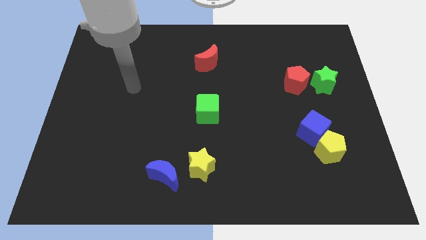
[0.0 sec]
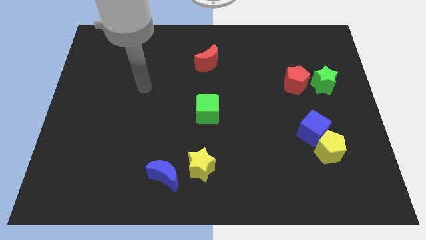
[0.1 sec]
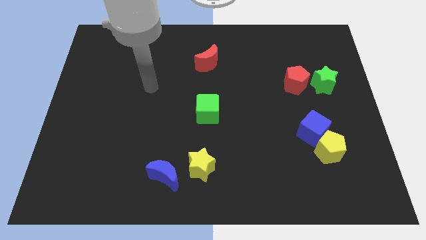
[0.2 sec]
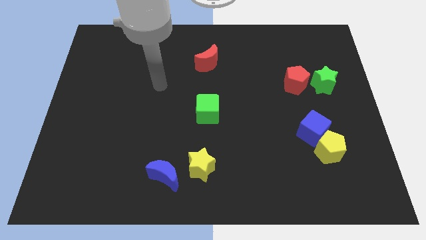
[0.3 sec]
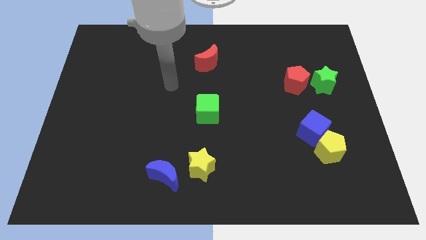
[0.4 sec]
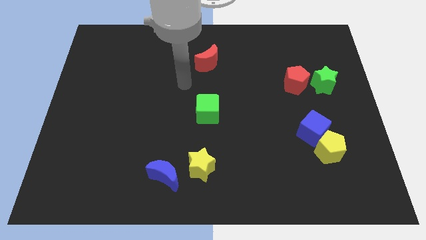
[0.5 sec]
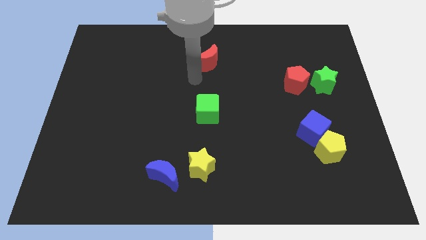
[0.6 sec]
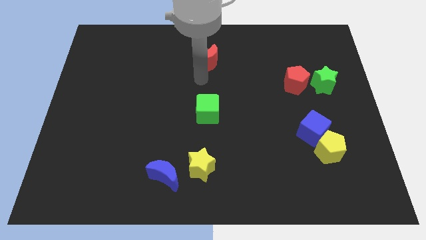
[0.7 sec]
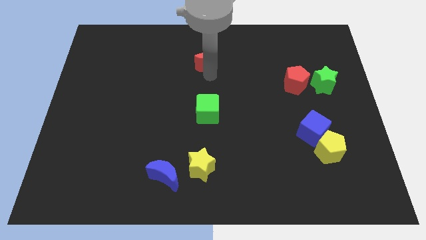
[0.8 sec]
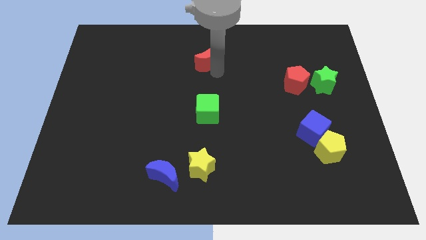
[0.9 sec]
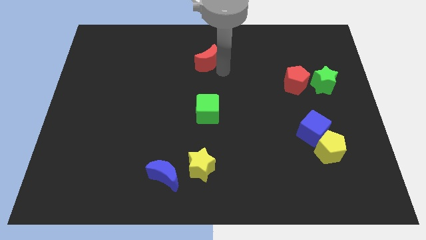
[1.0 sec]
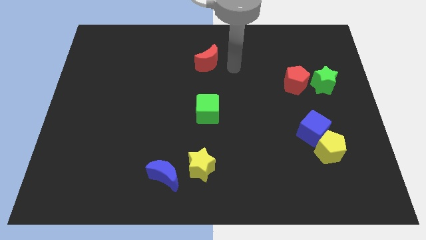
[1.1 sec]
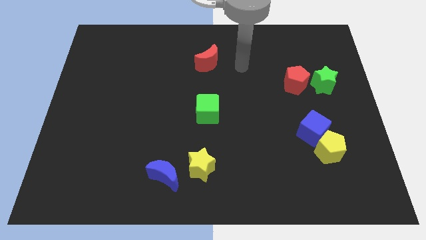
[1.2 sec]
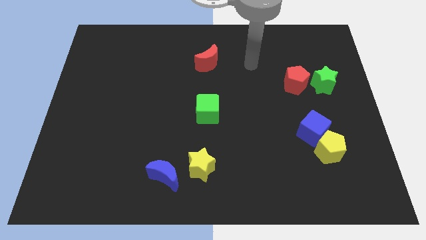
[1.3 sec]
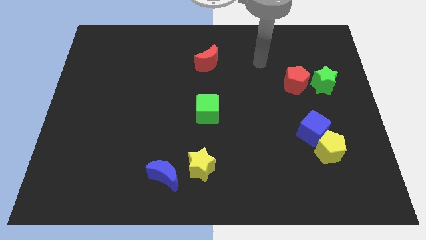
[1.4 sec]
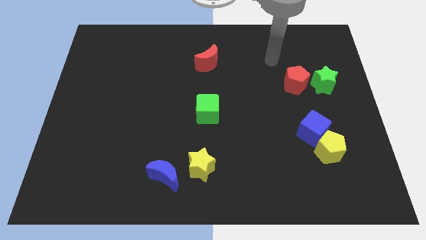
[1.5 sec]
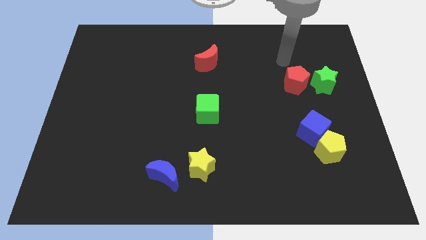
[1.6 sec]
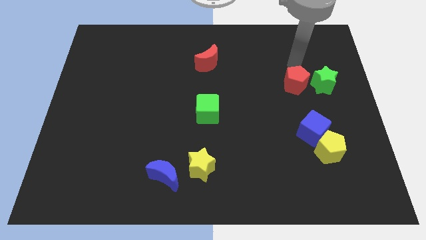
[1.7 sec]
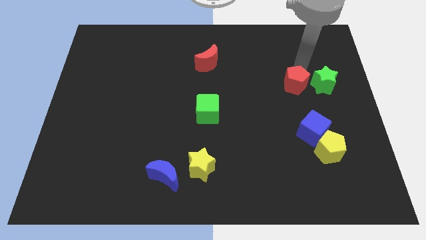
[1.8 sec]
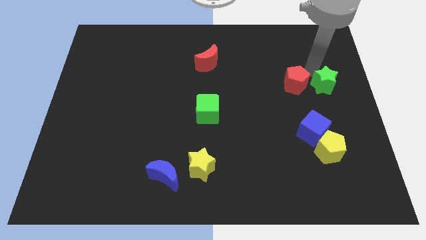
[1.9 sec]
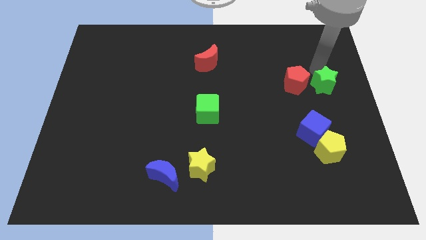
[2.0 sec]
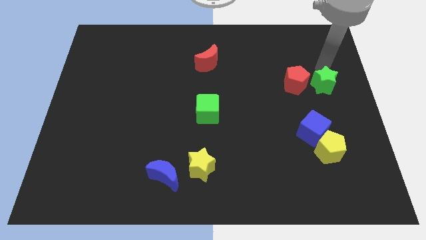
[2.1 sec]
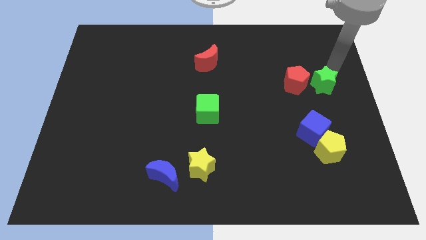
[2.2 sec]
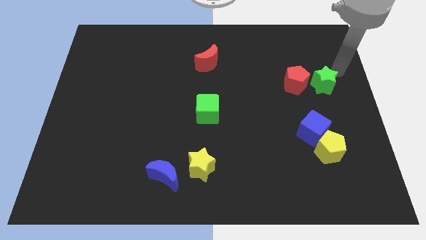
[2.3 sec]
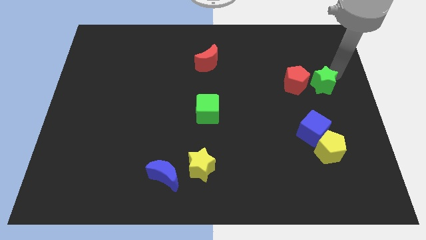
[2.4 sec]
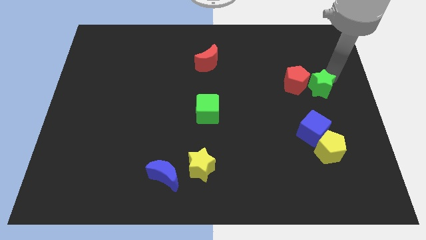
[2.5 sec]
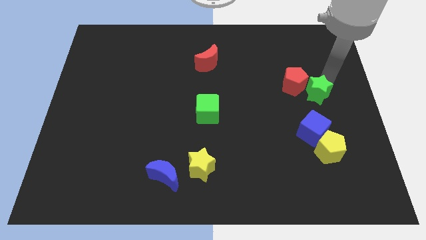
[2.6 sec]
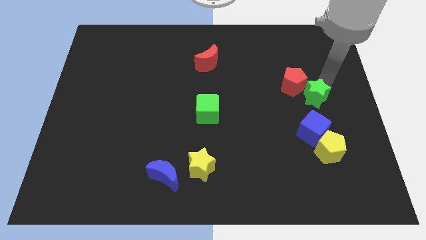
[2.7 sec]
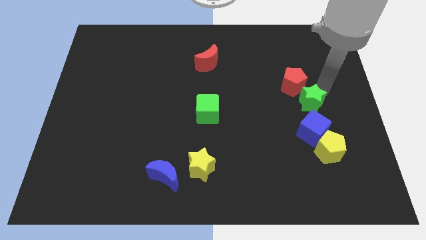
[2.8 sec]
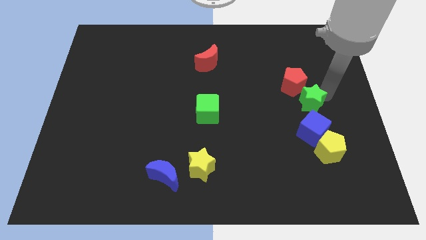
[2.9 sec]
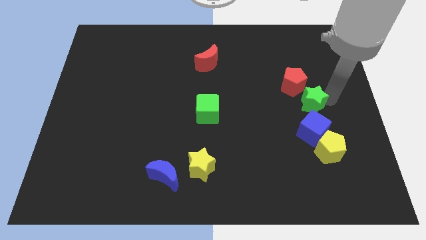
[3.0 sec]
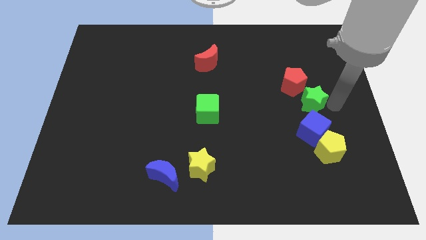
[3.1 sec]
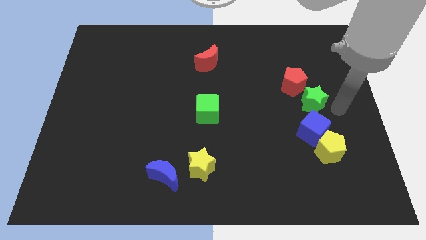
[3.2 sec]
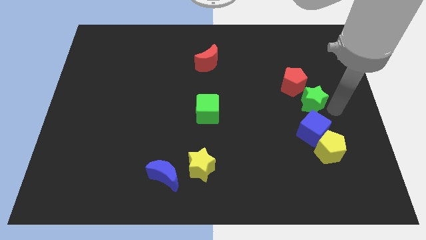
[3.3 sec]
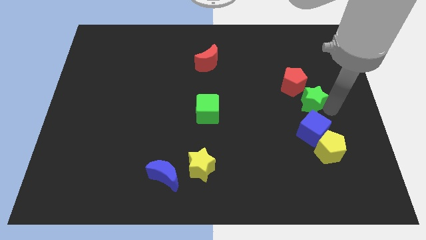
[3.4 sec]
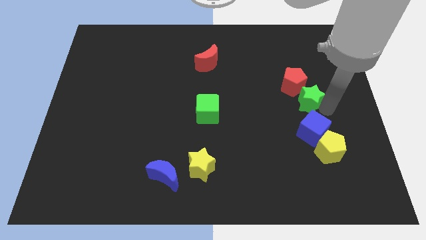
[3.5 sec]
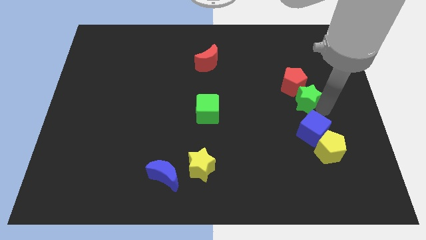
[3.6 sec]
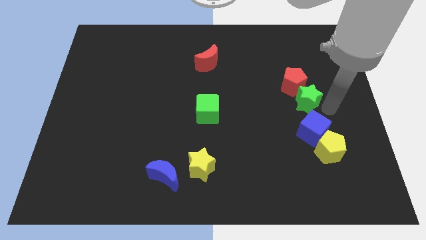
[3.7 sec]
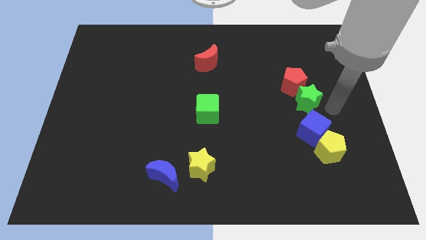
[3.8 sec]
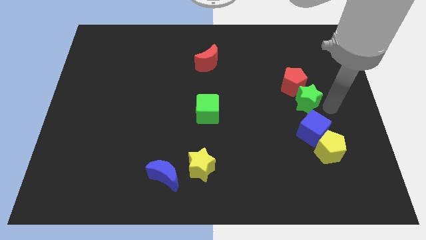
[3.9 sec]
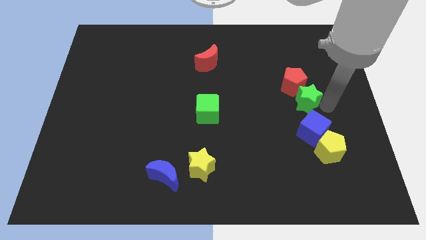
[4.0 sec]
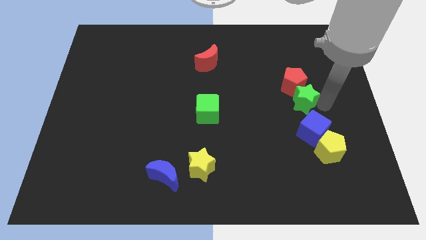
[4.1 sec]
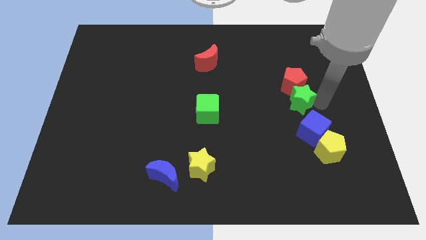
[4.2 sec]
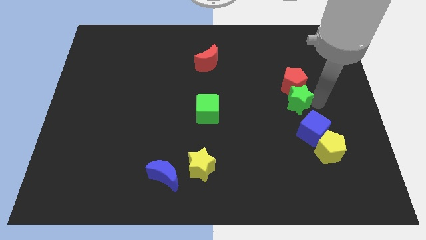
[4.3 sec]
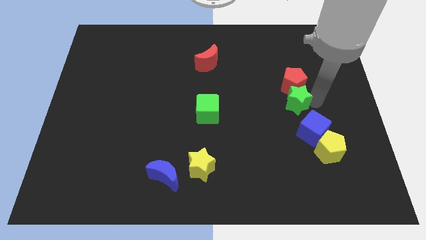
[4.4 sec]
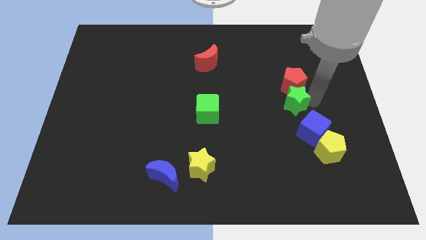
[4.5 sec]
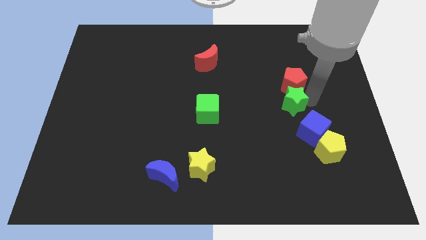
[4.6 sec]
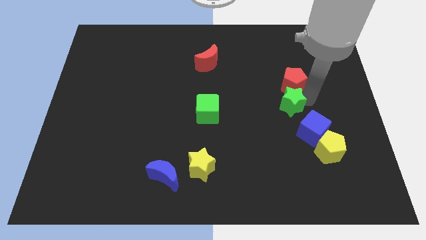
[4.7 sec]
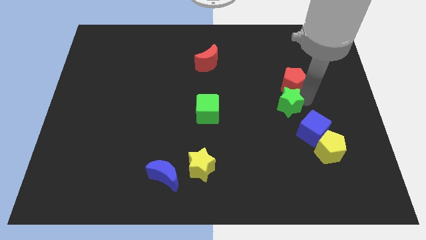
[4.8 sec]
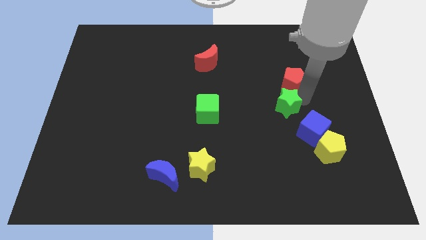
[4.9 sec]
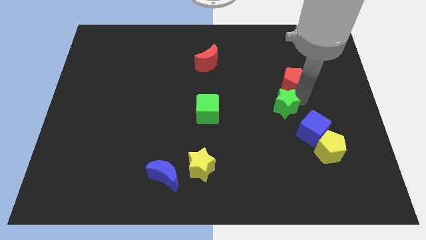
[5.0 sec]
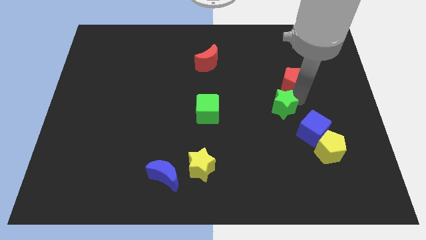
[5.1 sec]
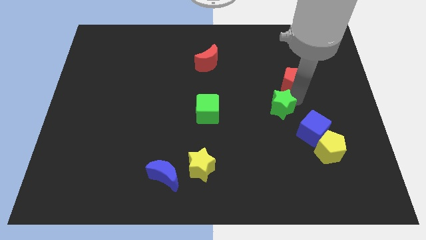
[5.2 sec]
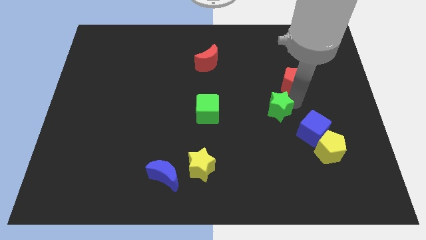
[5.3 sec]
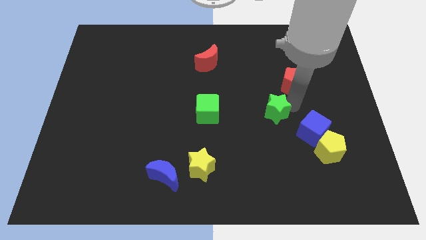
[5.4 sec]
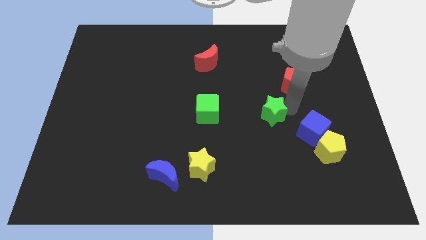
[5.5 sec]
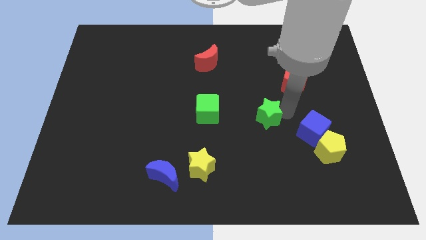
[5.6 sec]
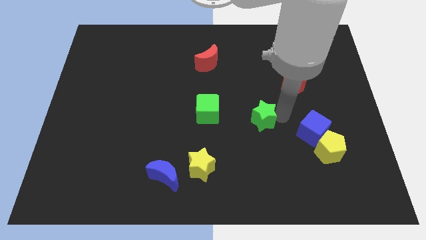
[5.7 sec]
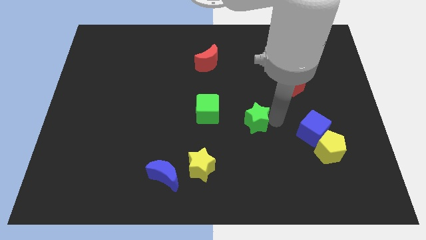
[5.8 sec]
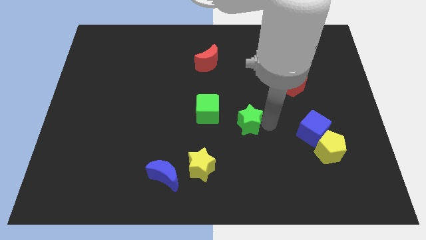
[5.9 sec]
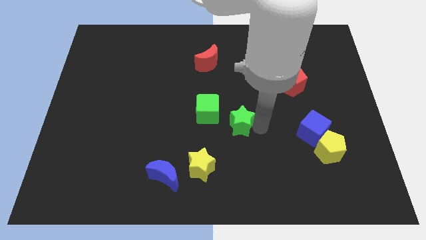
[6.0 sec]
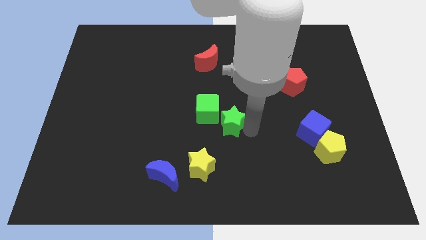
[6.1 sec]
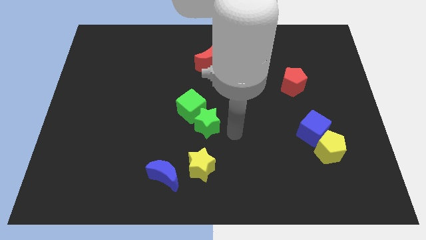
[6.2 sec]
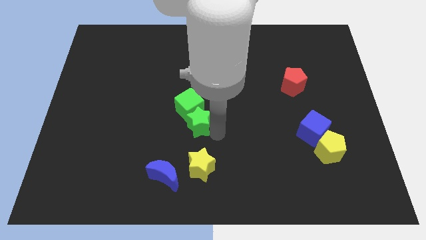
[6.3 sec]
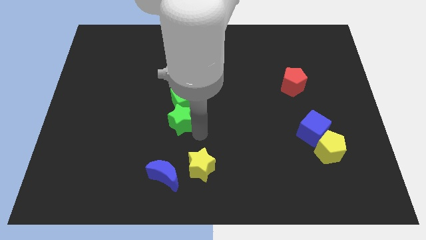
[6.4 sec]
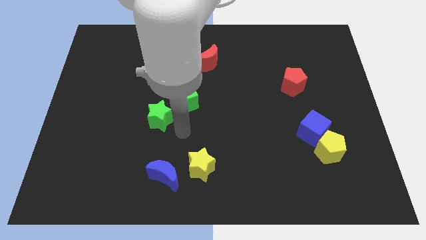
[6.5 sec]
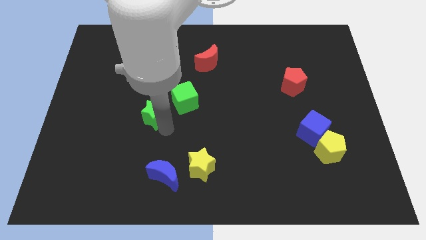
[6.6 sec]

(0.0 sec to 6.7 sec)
move the green star left of the green cube

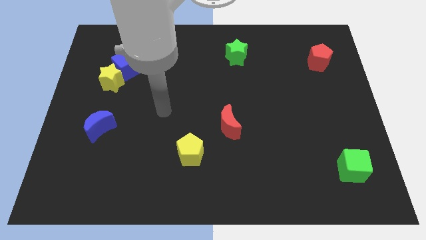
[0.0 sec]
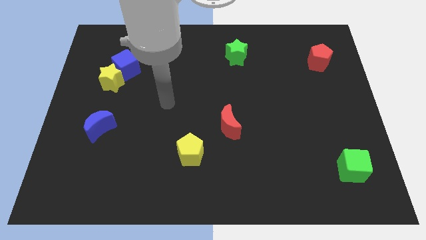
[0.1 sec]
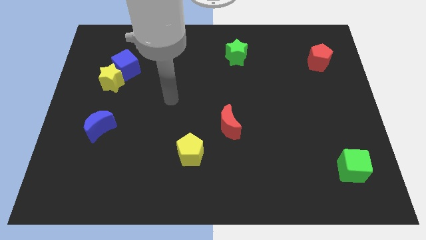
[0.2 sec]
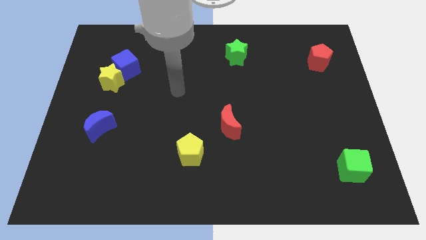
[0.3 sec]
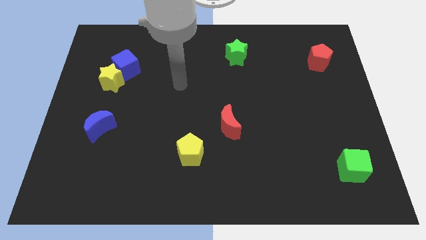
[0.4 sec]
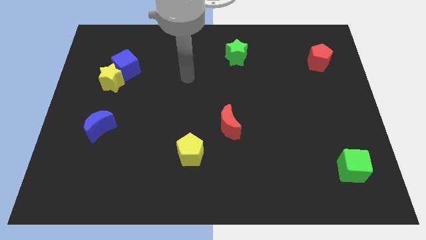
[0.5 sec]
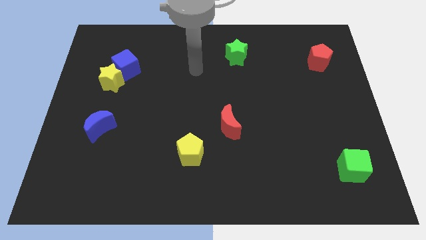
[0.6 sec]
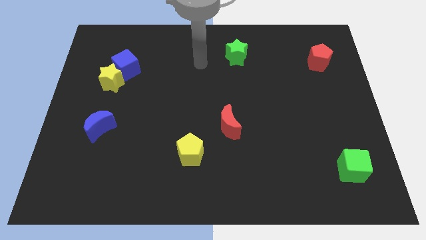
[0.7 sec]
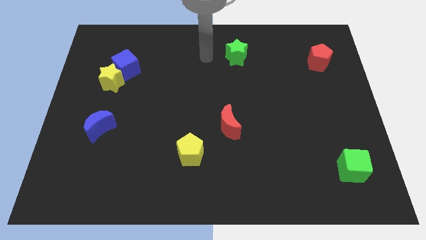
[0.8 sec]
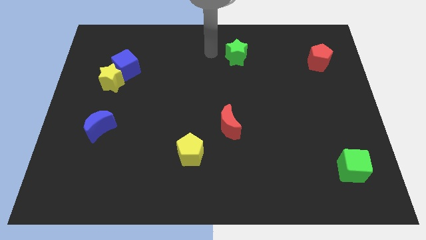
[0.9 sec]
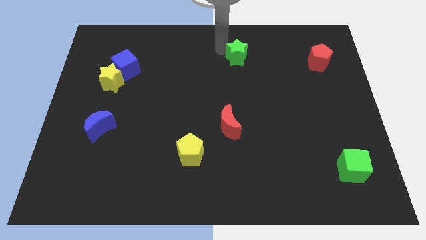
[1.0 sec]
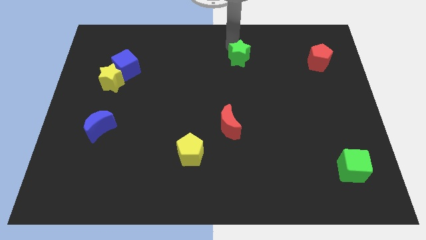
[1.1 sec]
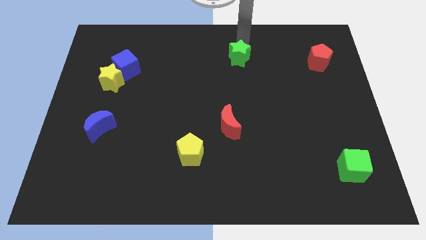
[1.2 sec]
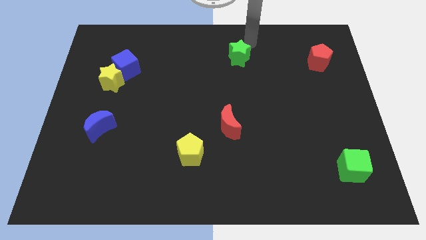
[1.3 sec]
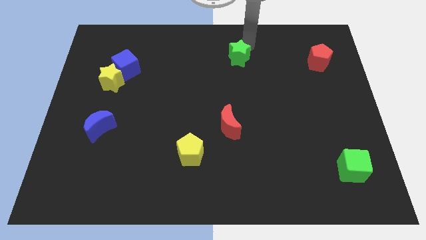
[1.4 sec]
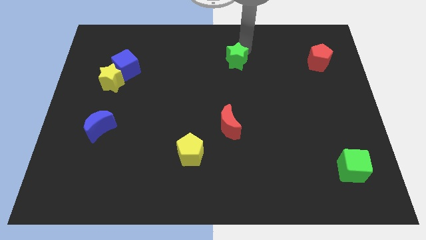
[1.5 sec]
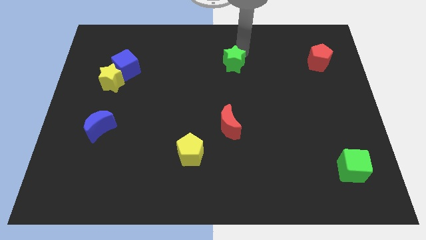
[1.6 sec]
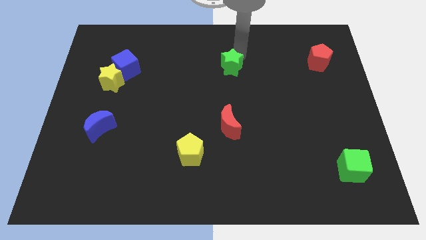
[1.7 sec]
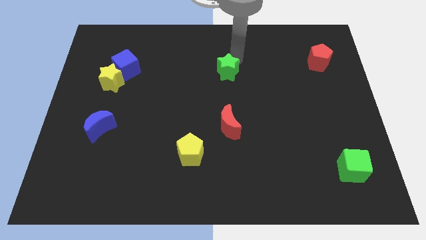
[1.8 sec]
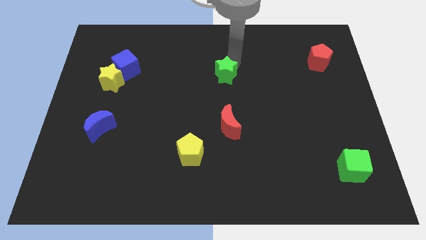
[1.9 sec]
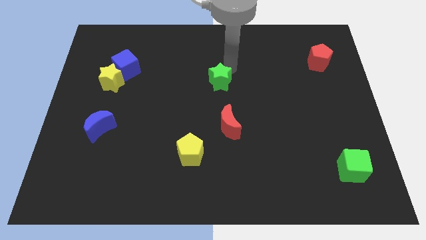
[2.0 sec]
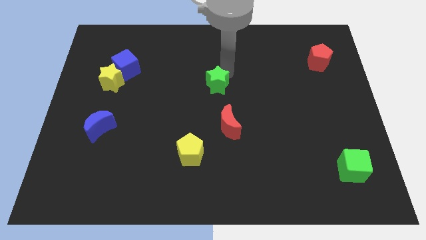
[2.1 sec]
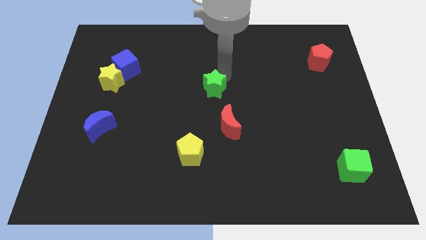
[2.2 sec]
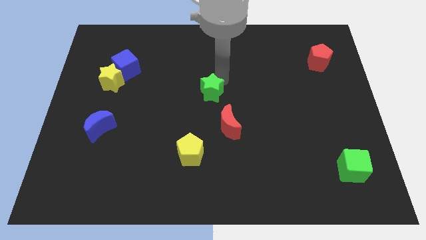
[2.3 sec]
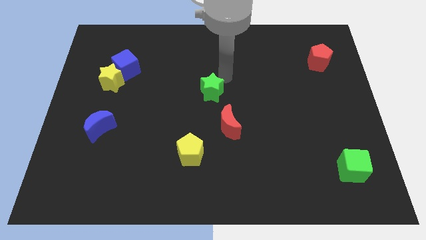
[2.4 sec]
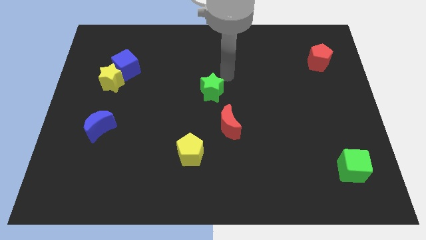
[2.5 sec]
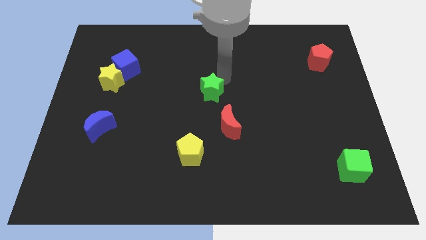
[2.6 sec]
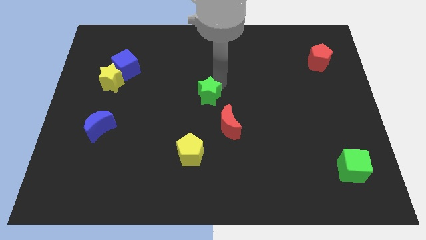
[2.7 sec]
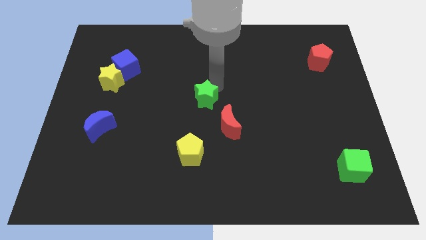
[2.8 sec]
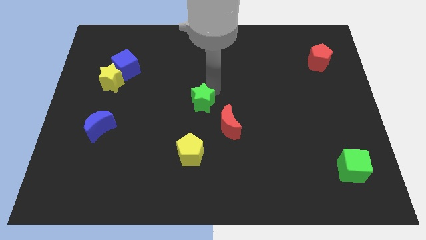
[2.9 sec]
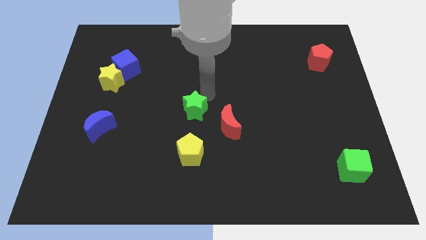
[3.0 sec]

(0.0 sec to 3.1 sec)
put the green star just left of the red moon
